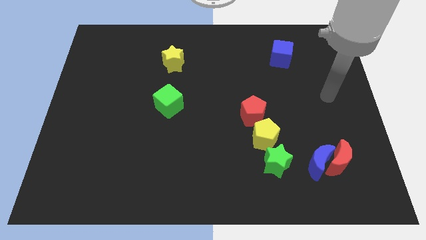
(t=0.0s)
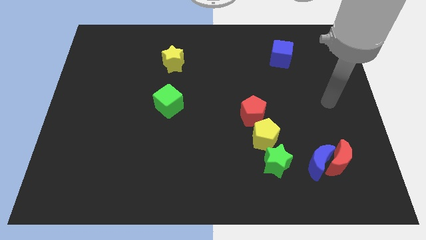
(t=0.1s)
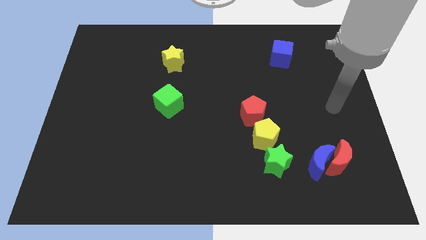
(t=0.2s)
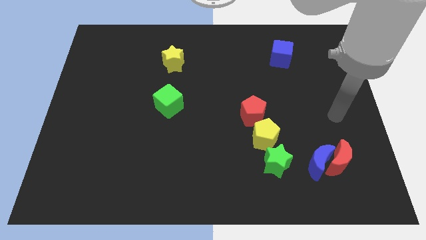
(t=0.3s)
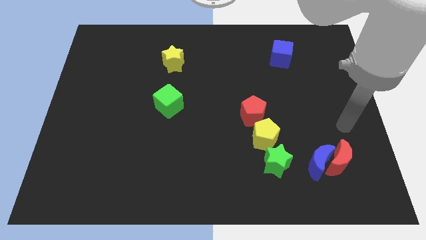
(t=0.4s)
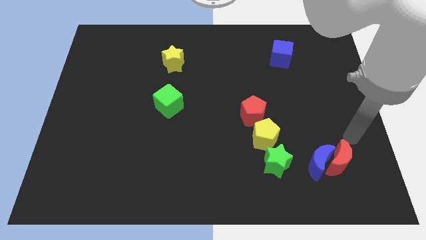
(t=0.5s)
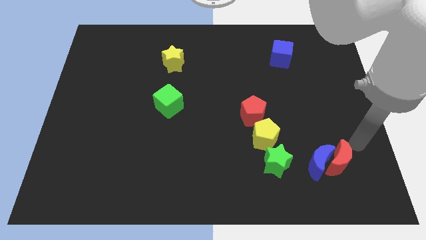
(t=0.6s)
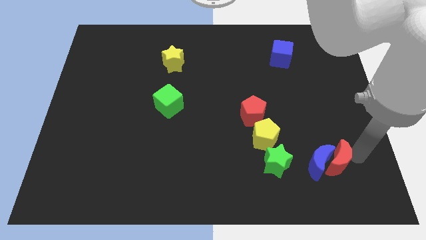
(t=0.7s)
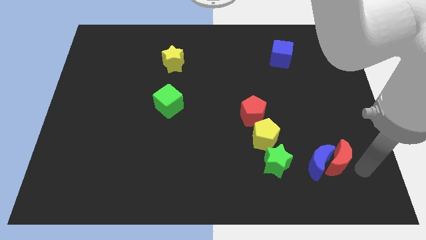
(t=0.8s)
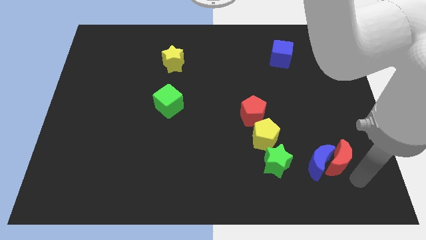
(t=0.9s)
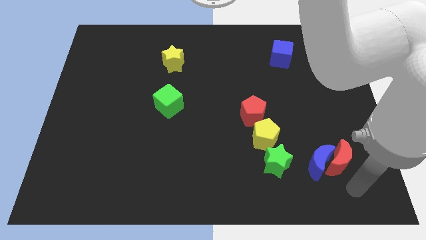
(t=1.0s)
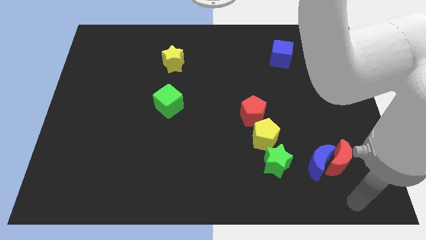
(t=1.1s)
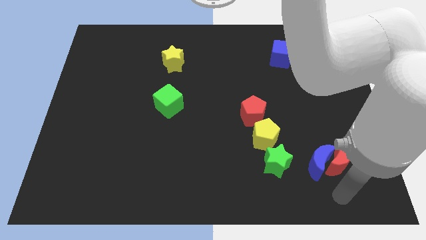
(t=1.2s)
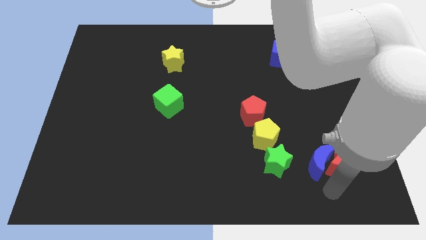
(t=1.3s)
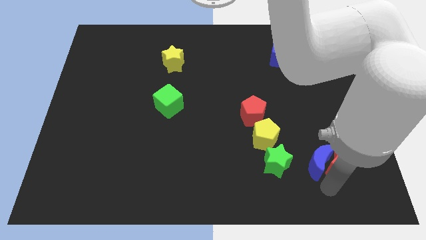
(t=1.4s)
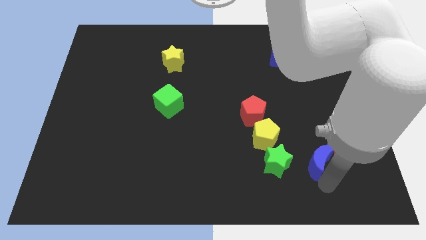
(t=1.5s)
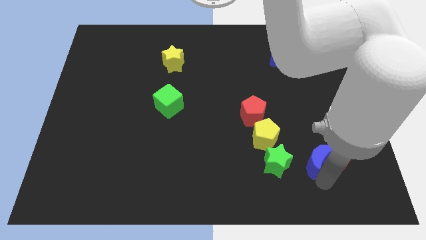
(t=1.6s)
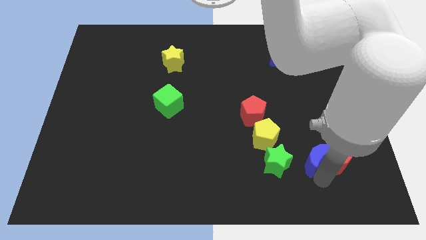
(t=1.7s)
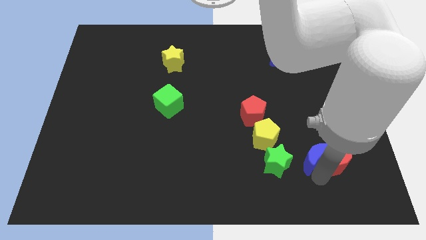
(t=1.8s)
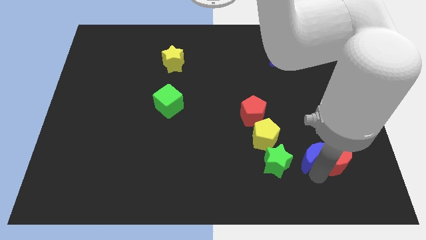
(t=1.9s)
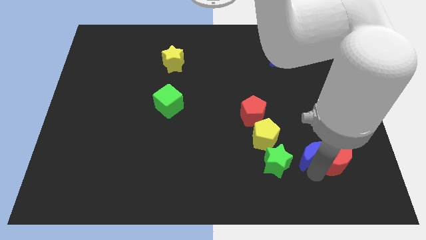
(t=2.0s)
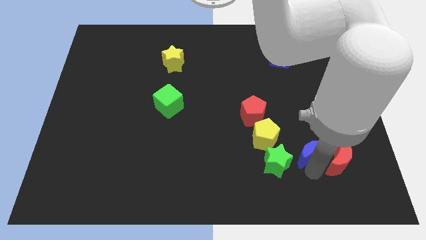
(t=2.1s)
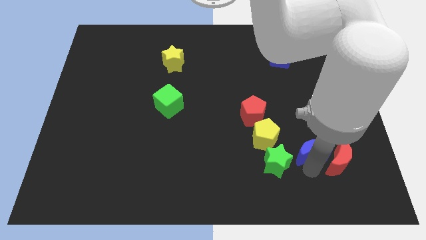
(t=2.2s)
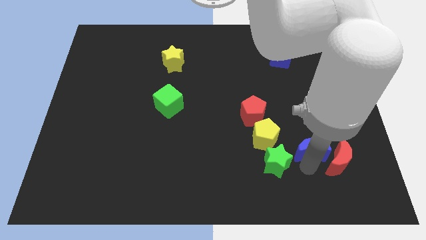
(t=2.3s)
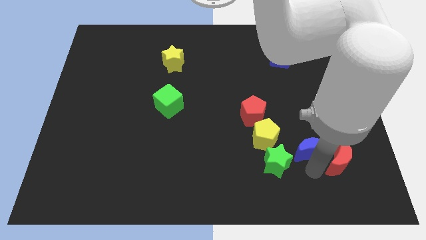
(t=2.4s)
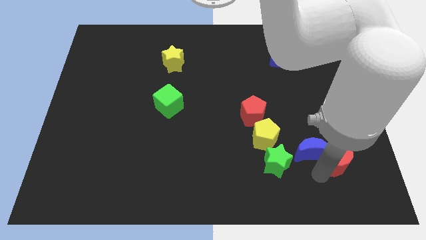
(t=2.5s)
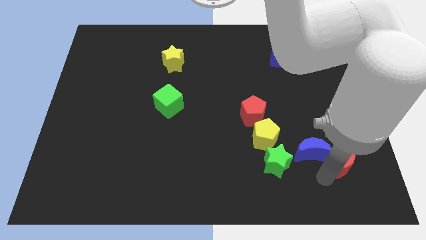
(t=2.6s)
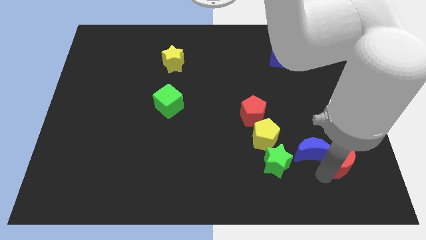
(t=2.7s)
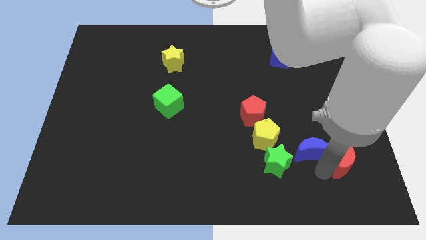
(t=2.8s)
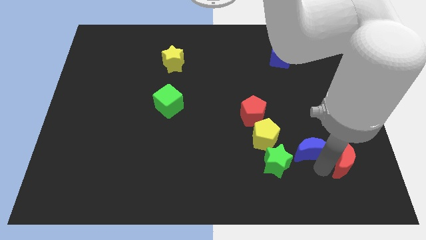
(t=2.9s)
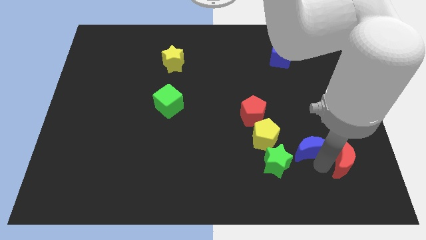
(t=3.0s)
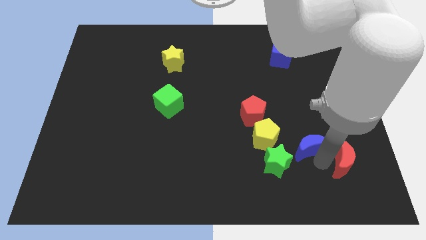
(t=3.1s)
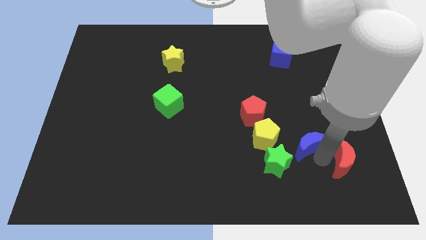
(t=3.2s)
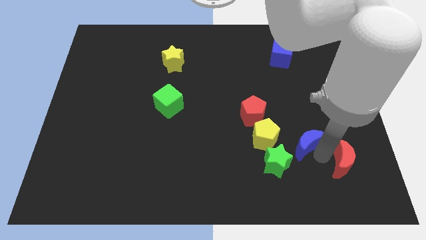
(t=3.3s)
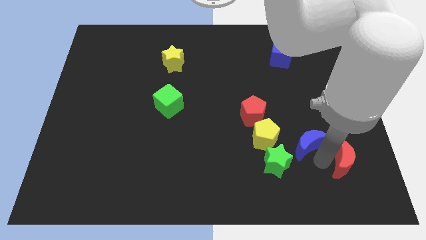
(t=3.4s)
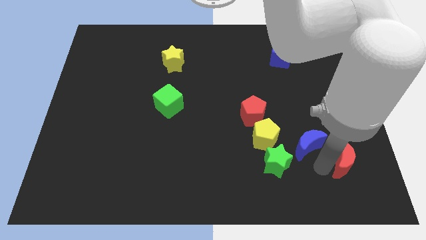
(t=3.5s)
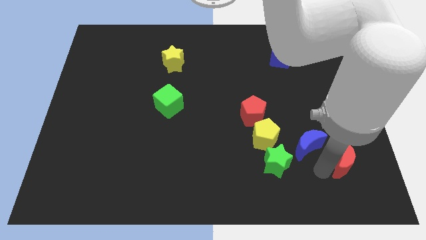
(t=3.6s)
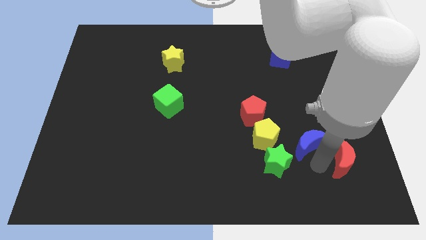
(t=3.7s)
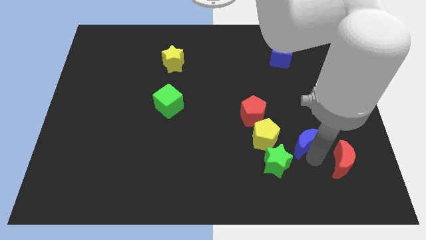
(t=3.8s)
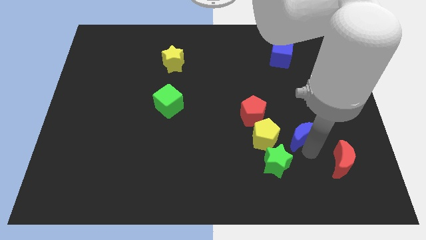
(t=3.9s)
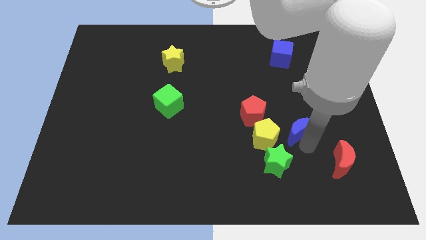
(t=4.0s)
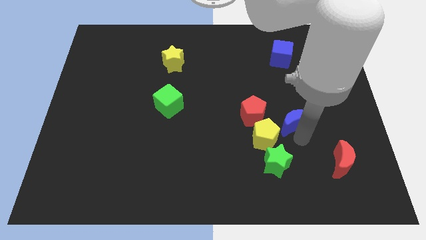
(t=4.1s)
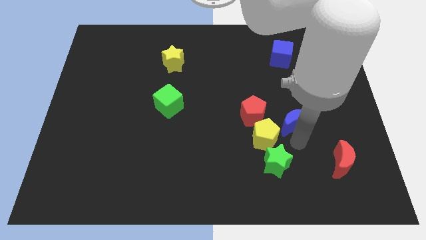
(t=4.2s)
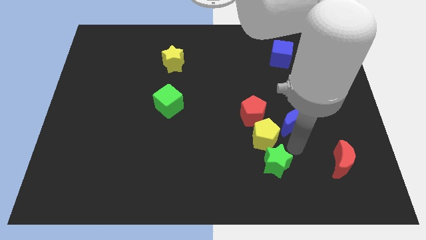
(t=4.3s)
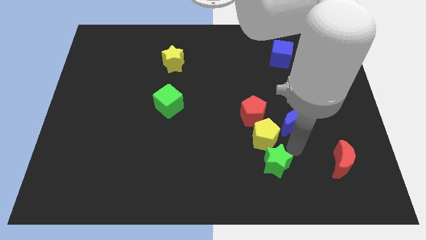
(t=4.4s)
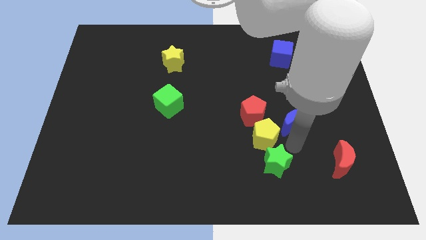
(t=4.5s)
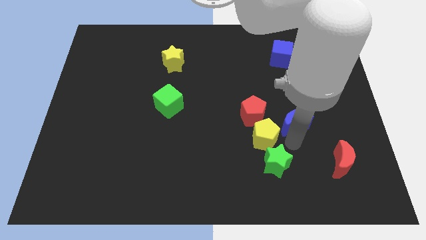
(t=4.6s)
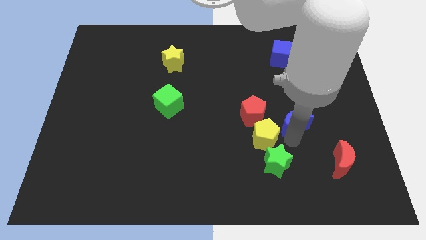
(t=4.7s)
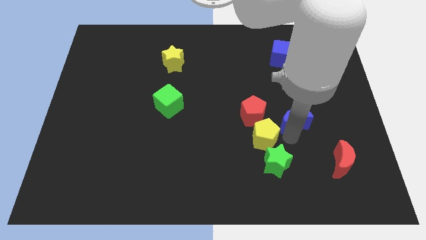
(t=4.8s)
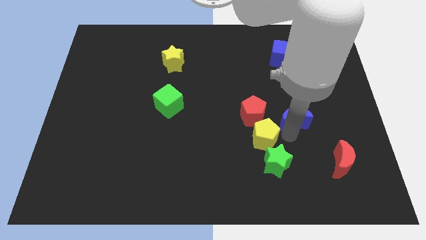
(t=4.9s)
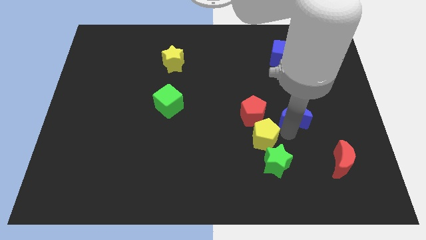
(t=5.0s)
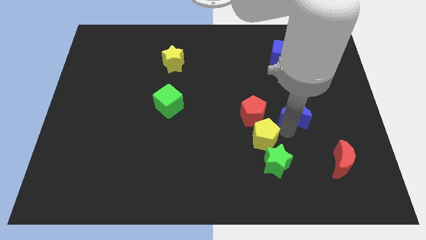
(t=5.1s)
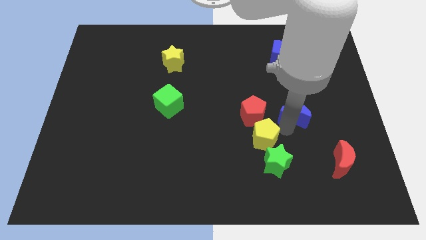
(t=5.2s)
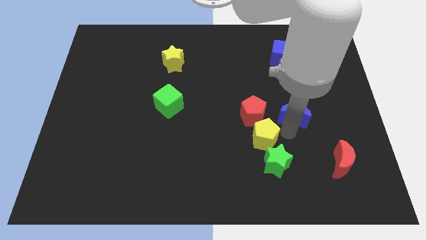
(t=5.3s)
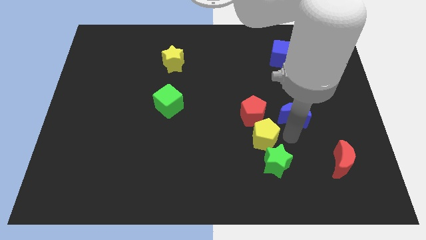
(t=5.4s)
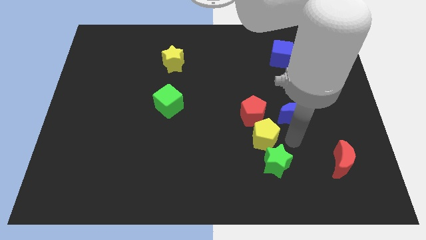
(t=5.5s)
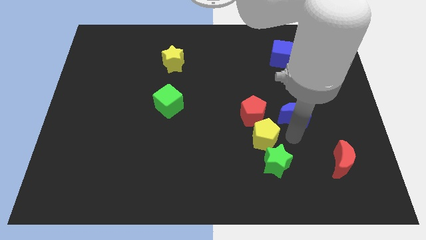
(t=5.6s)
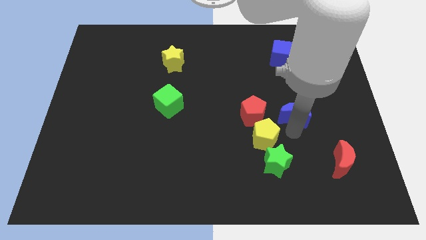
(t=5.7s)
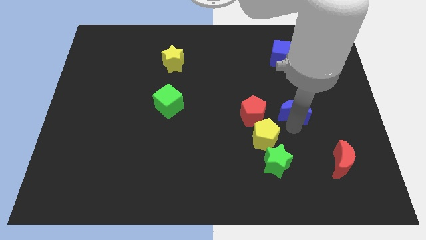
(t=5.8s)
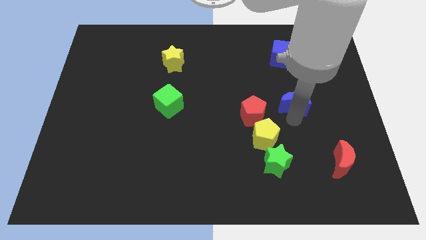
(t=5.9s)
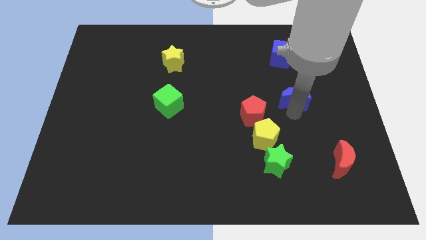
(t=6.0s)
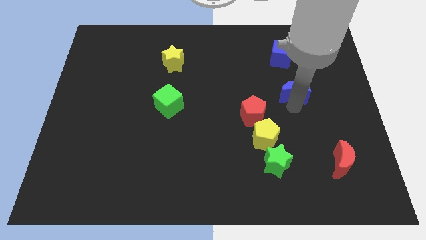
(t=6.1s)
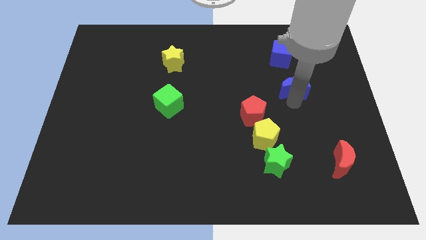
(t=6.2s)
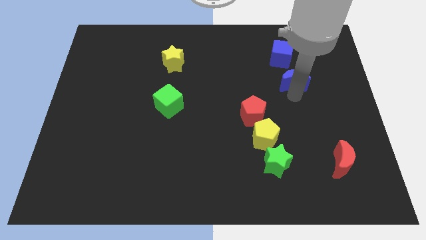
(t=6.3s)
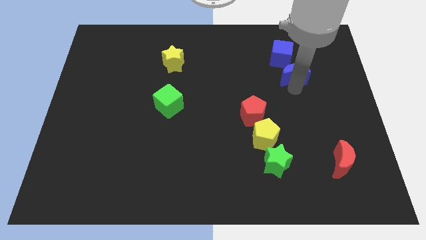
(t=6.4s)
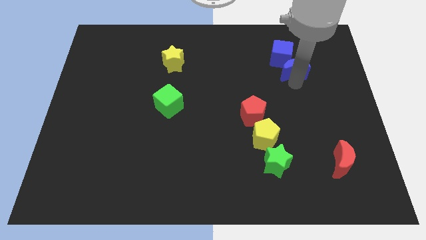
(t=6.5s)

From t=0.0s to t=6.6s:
move the blue moon towards the blue cube
